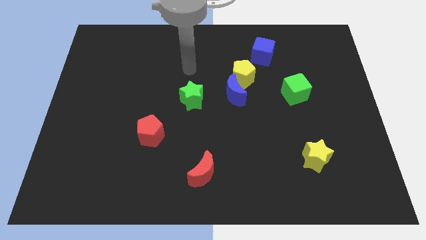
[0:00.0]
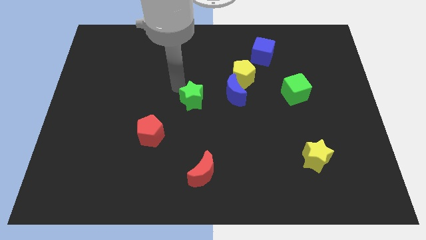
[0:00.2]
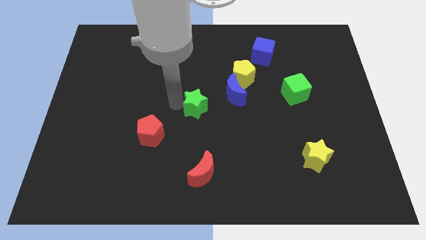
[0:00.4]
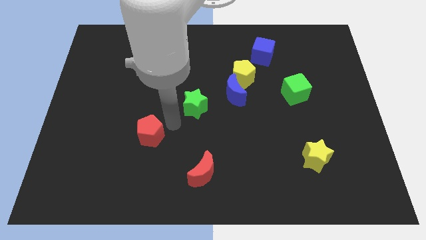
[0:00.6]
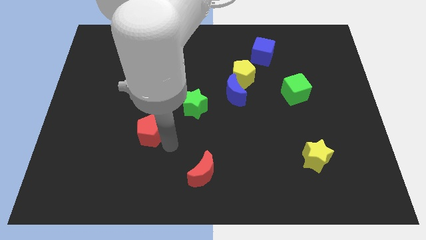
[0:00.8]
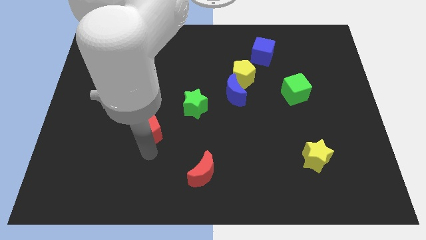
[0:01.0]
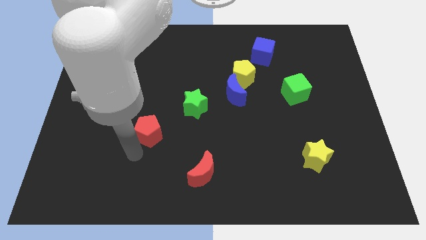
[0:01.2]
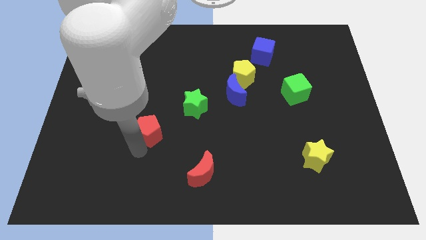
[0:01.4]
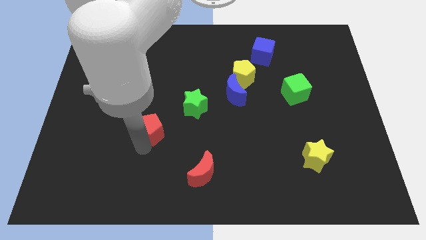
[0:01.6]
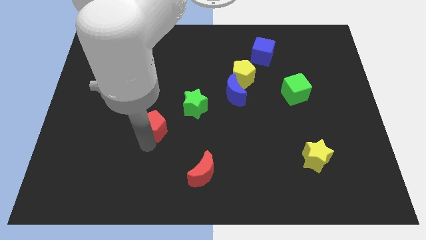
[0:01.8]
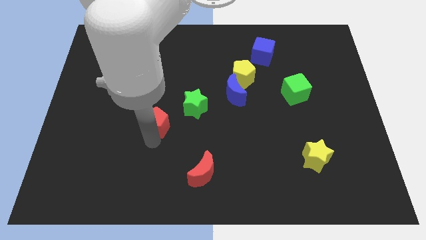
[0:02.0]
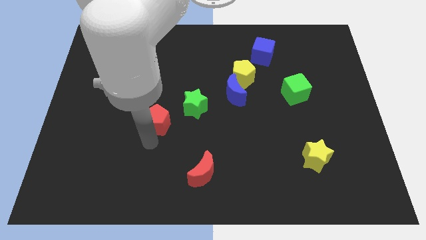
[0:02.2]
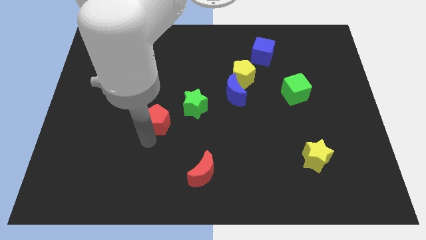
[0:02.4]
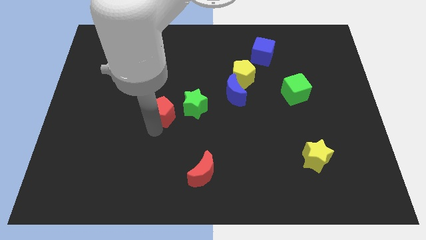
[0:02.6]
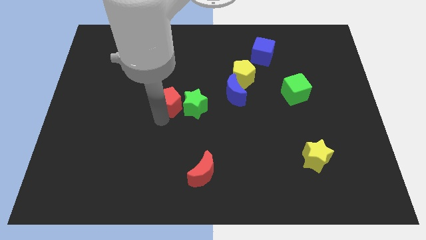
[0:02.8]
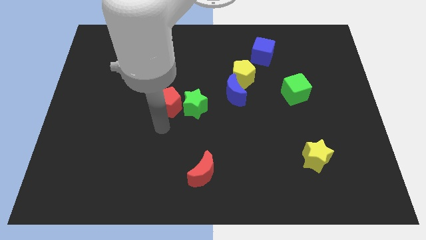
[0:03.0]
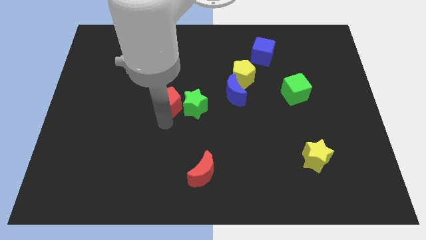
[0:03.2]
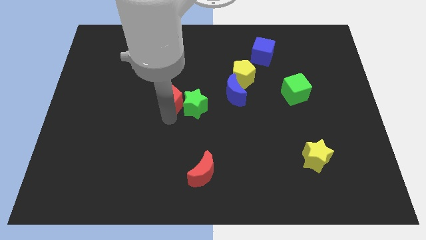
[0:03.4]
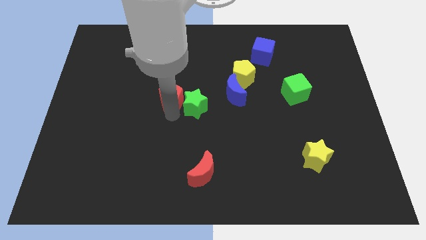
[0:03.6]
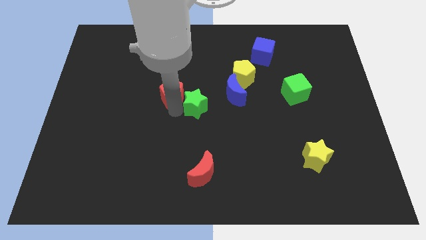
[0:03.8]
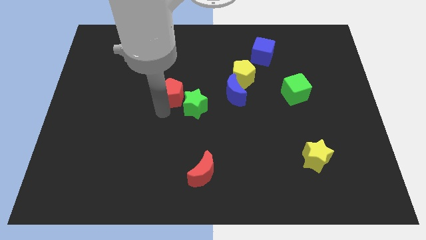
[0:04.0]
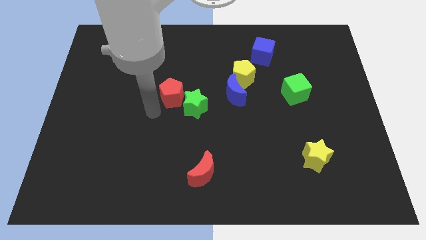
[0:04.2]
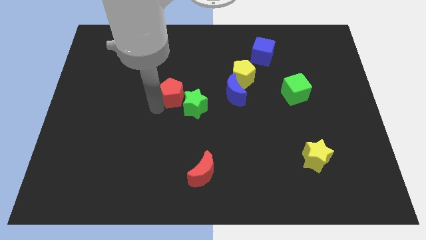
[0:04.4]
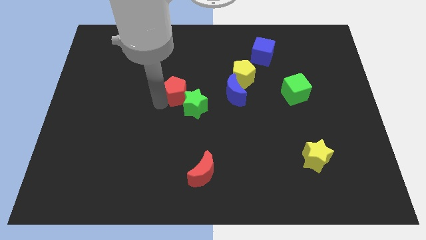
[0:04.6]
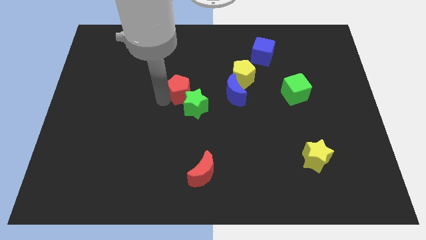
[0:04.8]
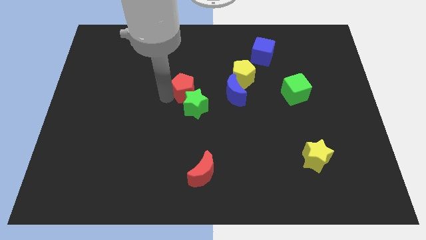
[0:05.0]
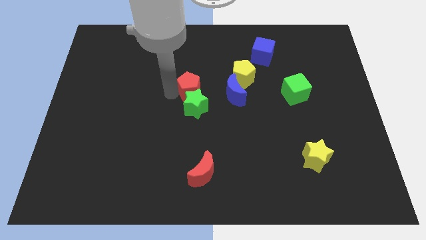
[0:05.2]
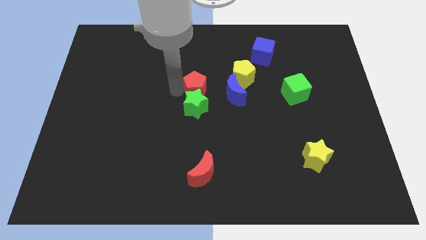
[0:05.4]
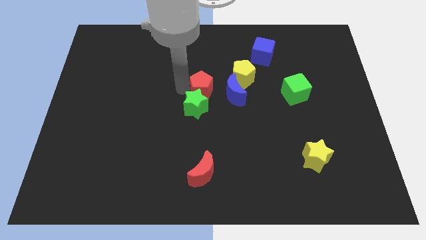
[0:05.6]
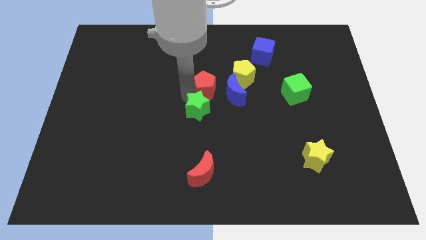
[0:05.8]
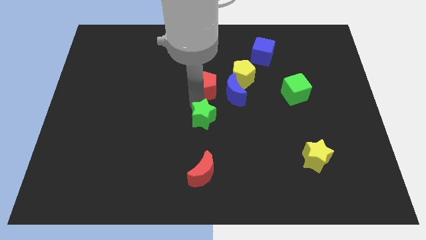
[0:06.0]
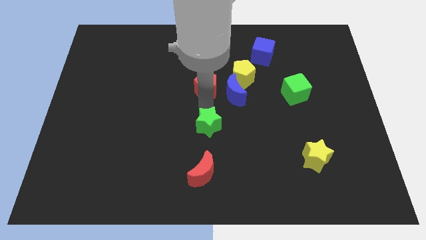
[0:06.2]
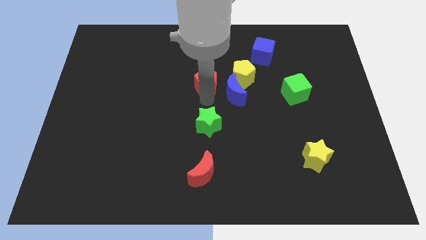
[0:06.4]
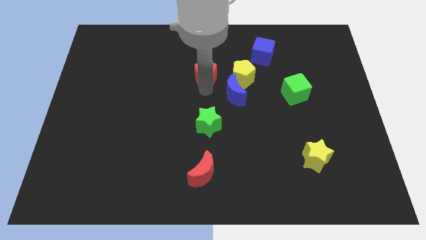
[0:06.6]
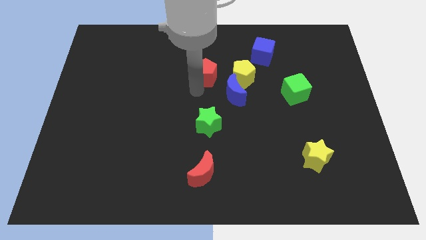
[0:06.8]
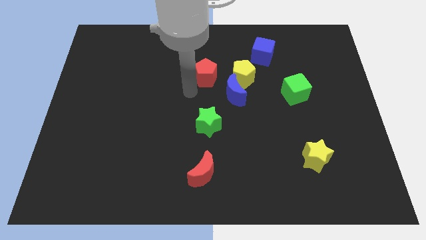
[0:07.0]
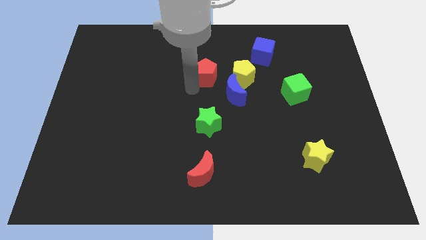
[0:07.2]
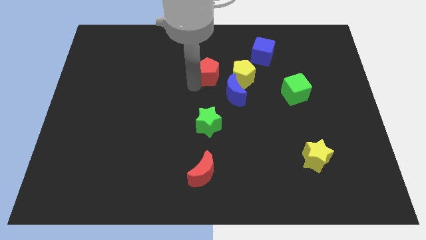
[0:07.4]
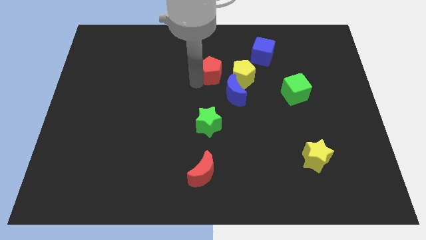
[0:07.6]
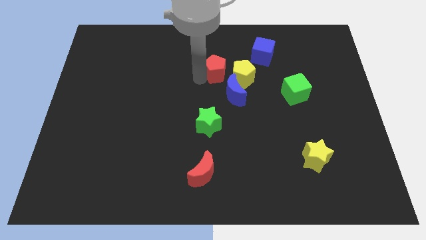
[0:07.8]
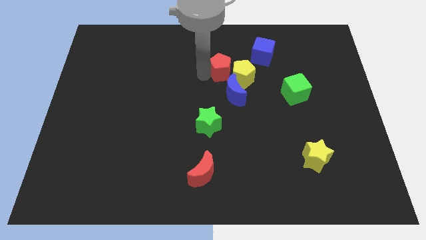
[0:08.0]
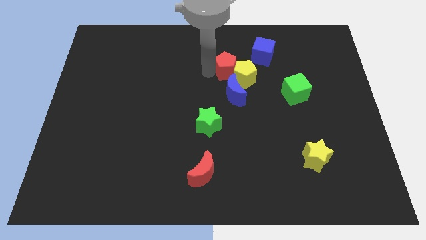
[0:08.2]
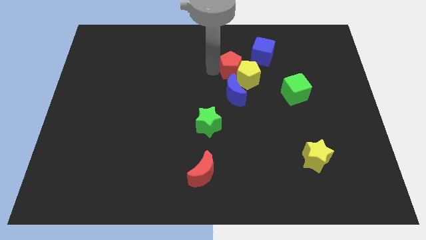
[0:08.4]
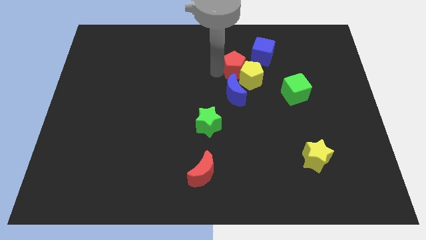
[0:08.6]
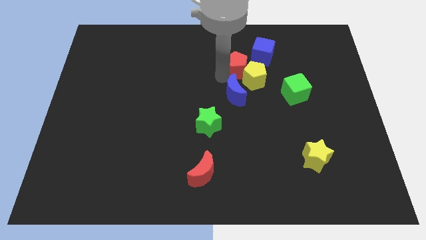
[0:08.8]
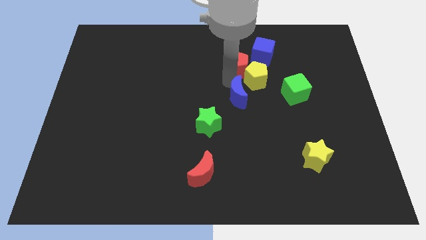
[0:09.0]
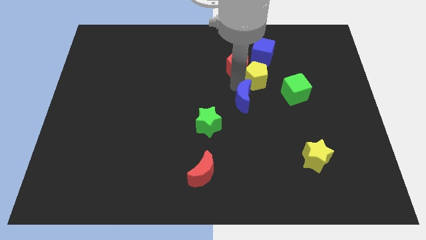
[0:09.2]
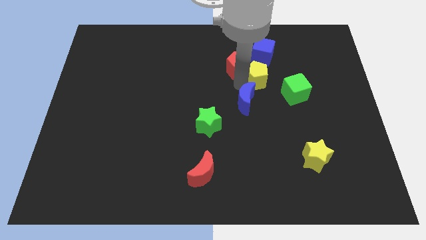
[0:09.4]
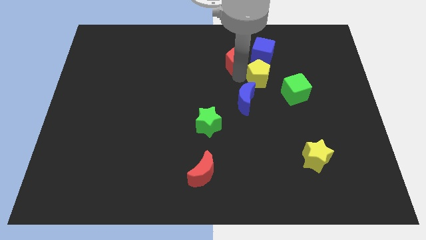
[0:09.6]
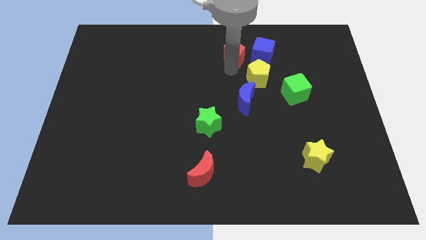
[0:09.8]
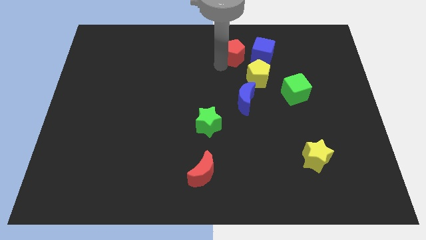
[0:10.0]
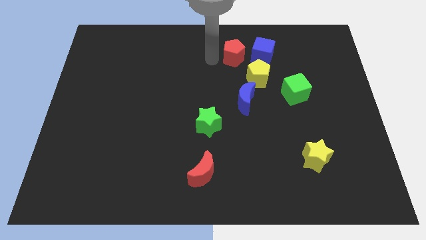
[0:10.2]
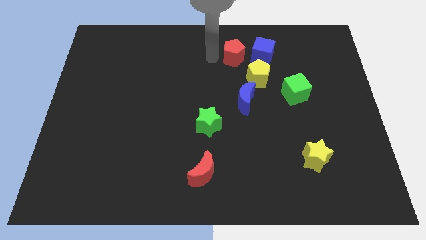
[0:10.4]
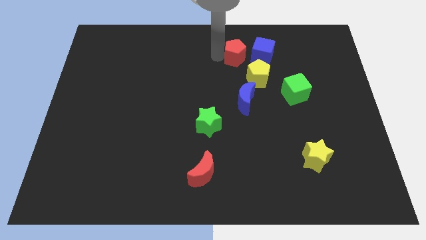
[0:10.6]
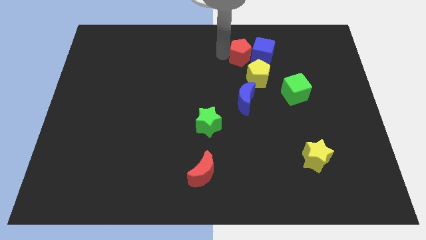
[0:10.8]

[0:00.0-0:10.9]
move the red pentagon next to the blue cube

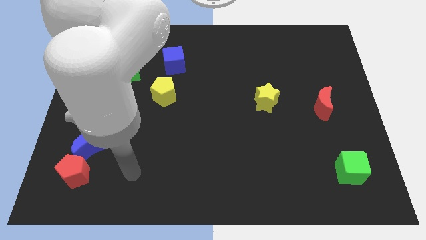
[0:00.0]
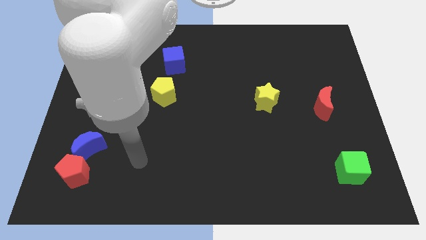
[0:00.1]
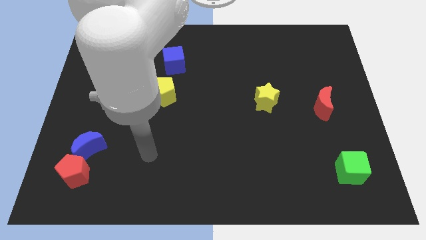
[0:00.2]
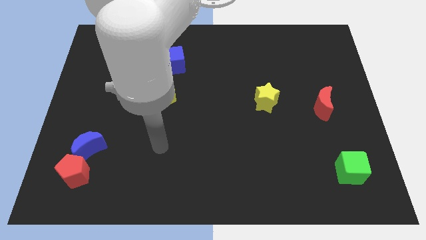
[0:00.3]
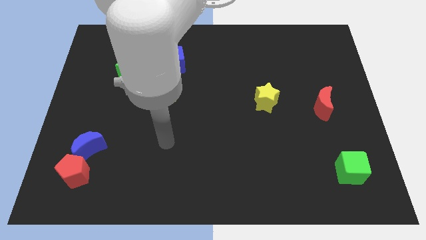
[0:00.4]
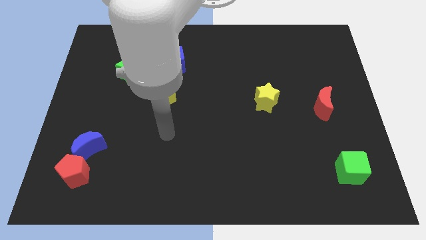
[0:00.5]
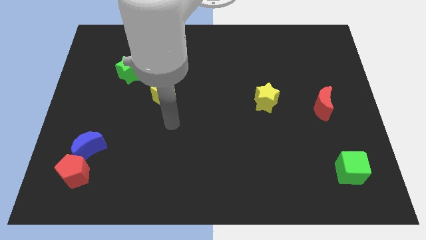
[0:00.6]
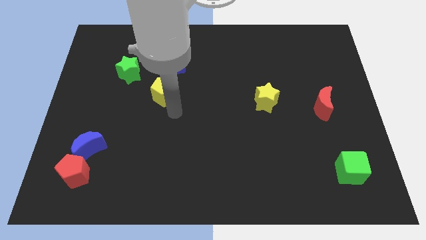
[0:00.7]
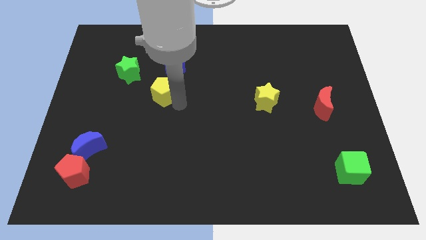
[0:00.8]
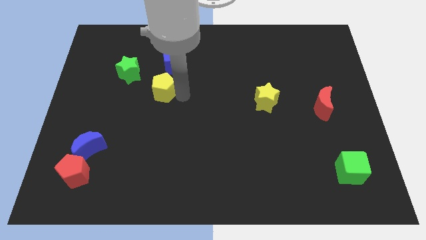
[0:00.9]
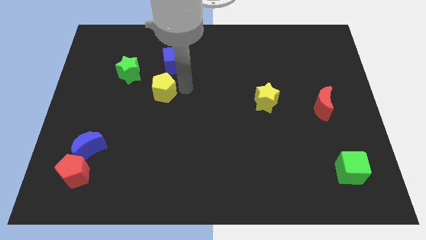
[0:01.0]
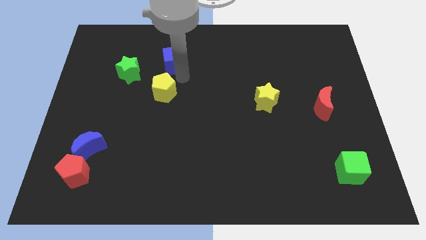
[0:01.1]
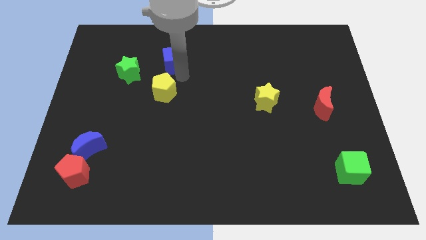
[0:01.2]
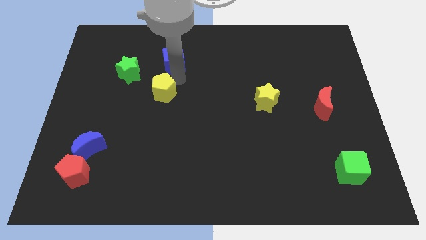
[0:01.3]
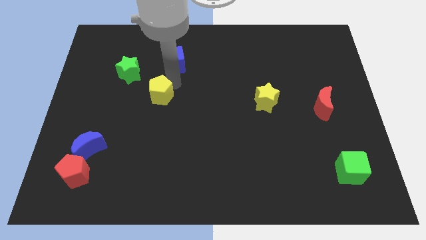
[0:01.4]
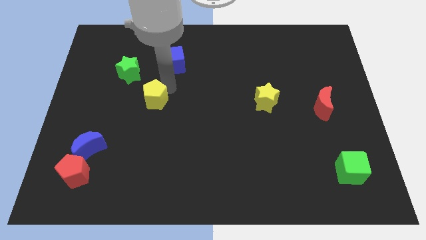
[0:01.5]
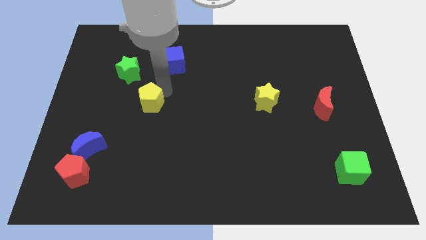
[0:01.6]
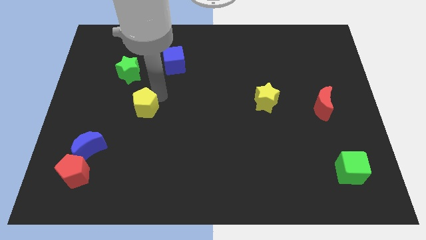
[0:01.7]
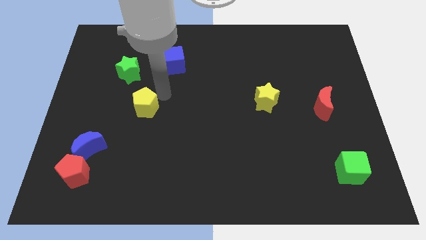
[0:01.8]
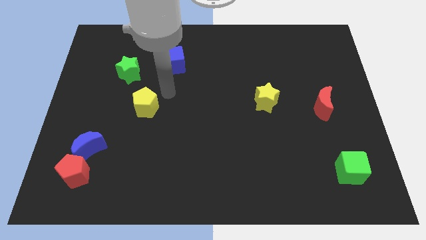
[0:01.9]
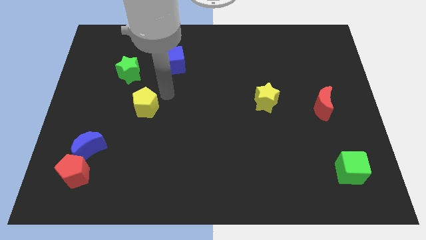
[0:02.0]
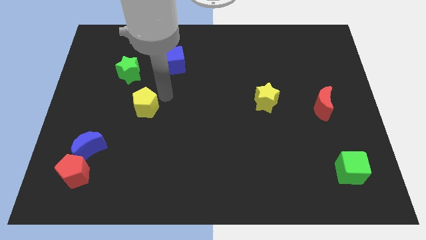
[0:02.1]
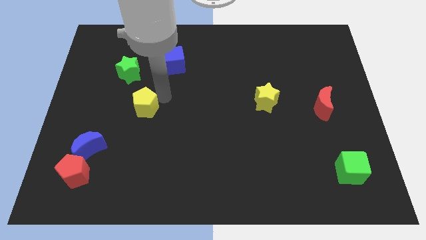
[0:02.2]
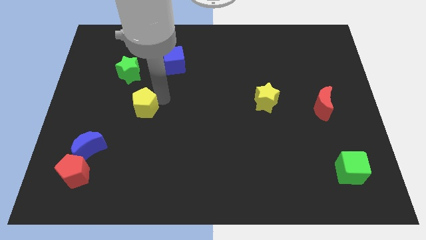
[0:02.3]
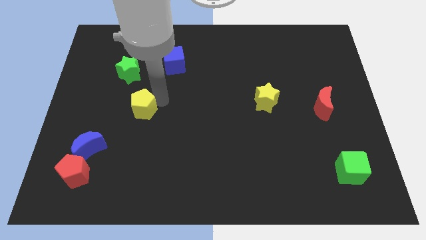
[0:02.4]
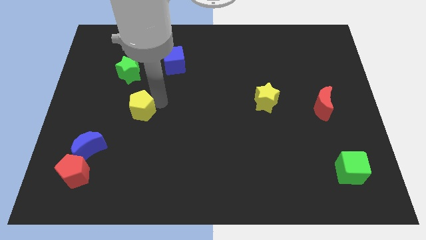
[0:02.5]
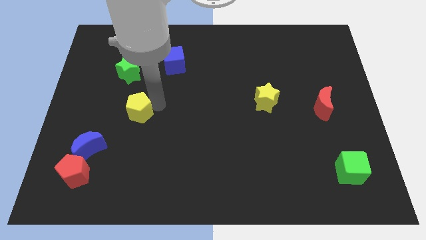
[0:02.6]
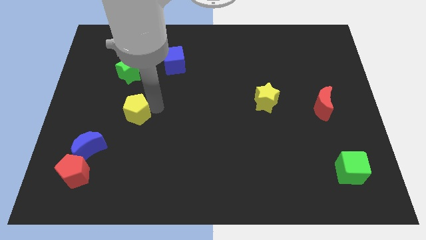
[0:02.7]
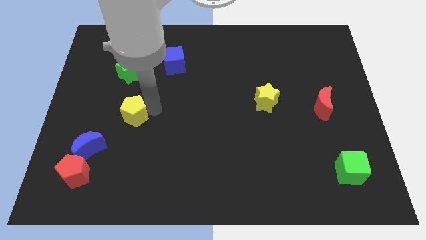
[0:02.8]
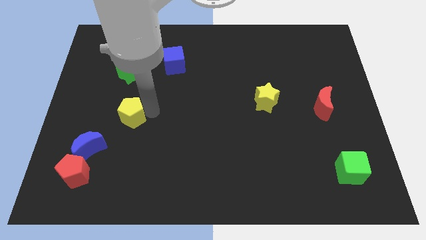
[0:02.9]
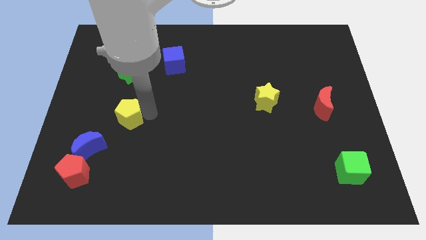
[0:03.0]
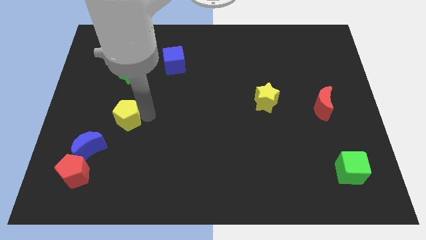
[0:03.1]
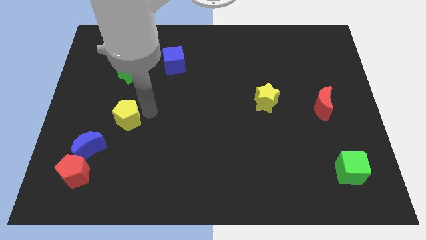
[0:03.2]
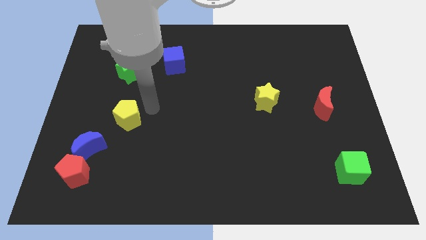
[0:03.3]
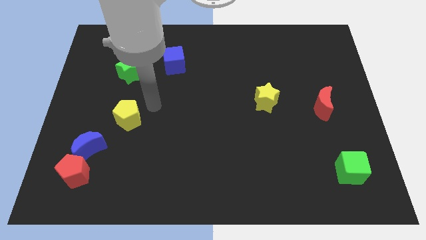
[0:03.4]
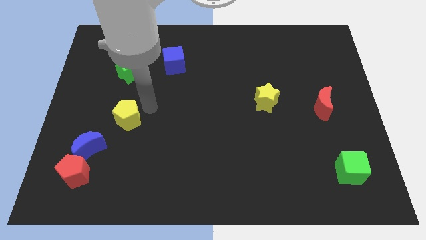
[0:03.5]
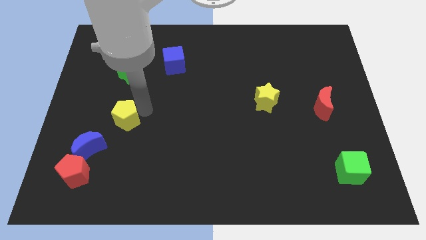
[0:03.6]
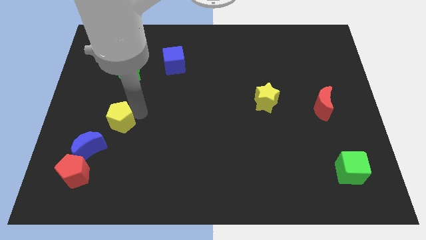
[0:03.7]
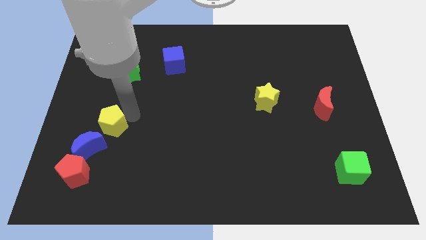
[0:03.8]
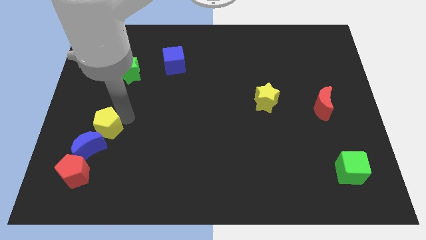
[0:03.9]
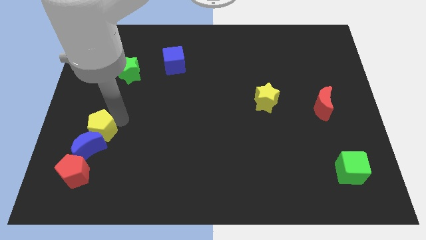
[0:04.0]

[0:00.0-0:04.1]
push the yellow pentagon towards the blue moon
